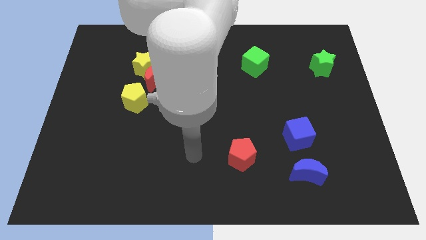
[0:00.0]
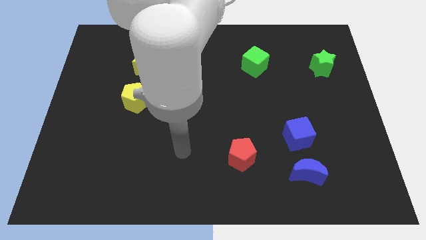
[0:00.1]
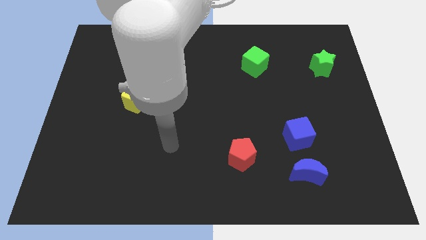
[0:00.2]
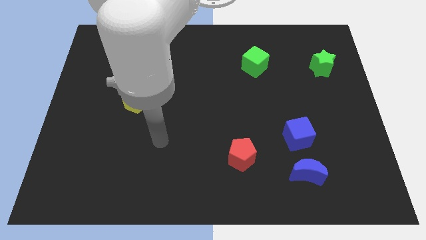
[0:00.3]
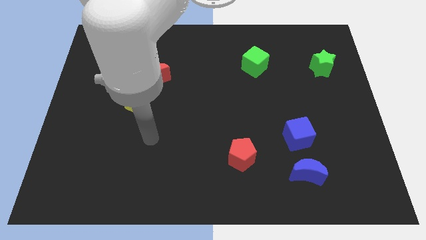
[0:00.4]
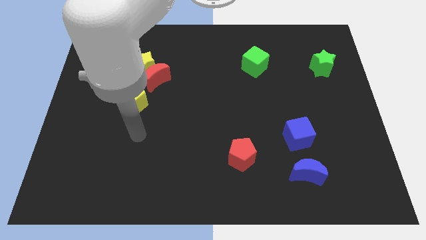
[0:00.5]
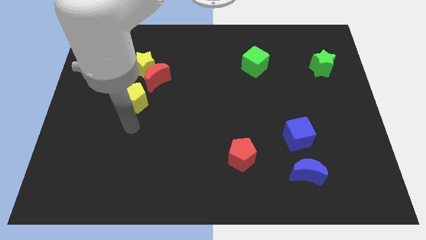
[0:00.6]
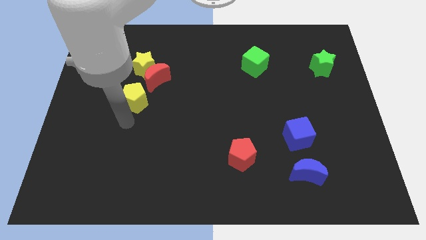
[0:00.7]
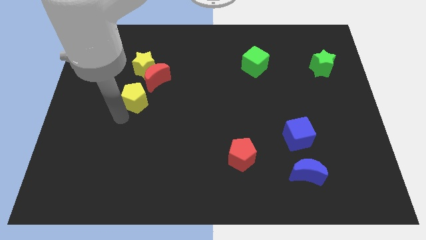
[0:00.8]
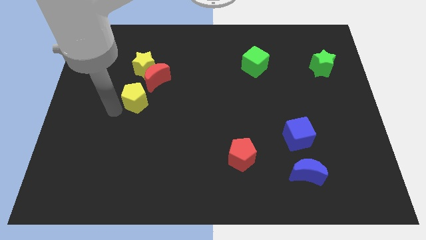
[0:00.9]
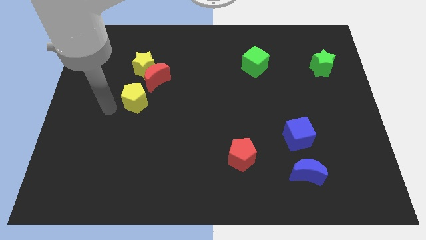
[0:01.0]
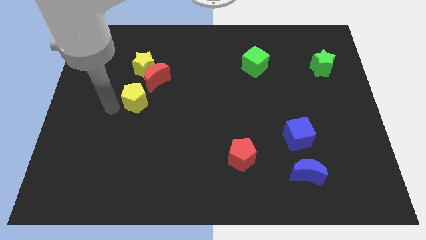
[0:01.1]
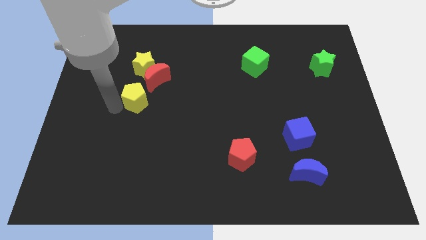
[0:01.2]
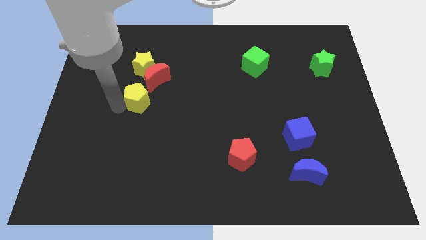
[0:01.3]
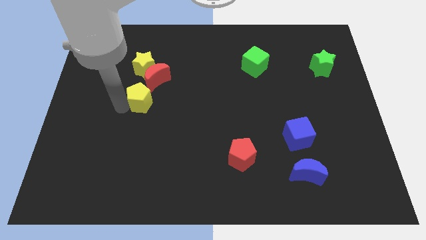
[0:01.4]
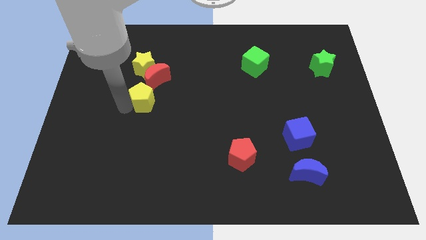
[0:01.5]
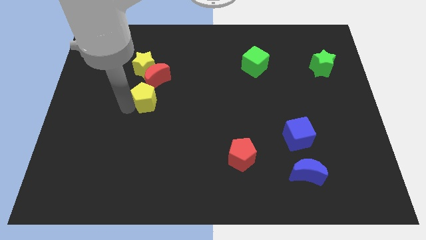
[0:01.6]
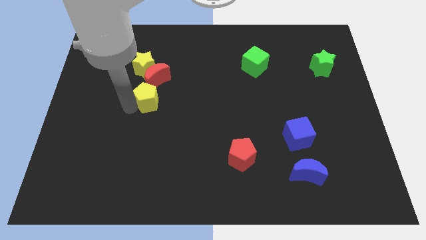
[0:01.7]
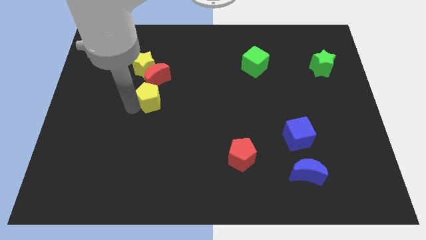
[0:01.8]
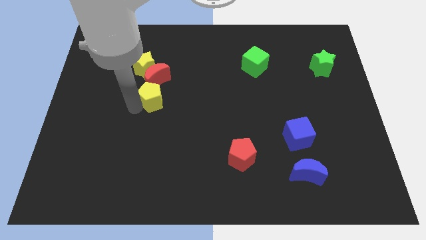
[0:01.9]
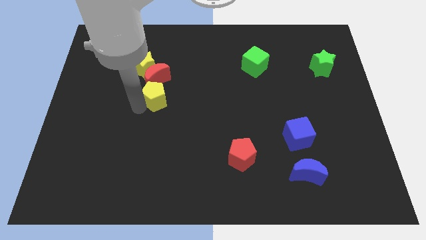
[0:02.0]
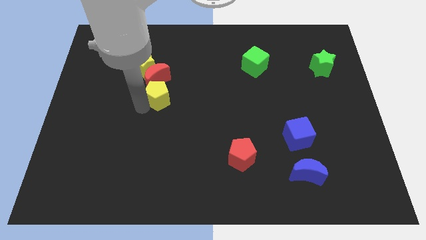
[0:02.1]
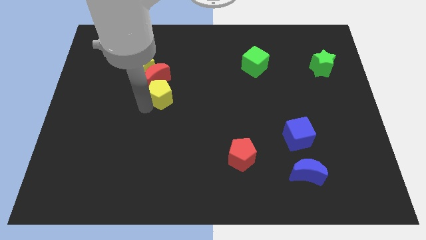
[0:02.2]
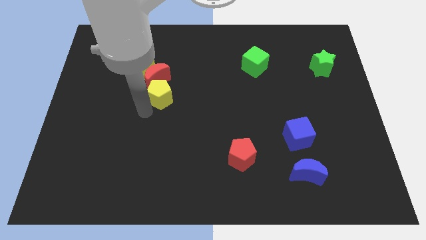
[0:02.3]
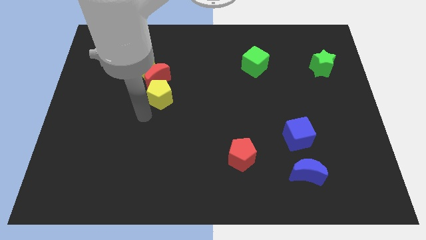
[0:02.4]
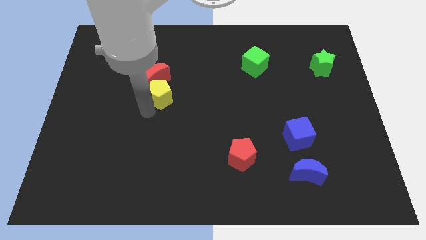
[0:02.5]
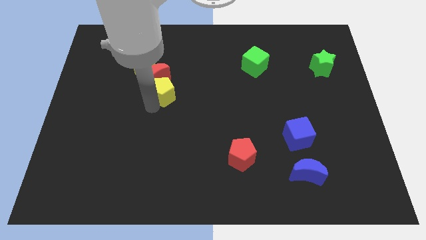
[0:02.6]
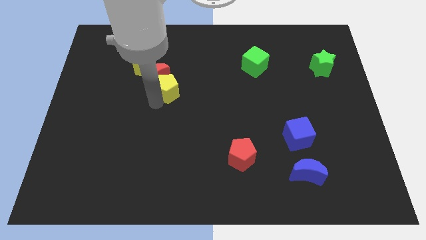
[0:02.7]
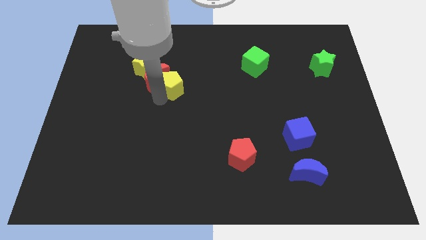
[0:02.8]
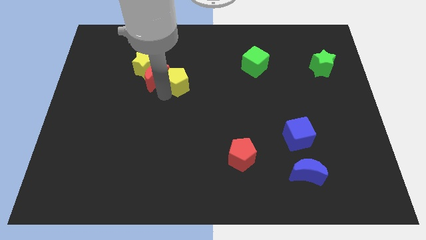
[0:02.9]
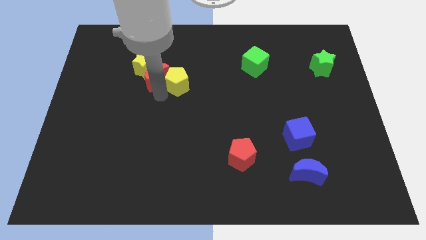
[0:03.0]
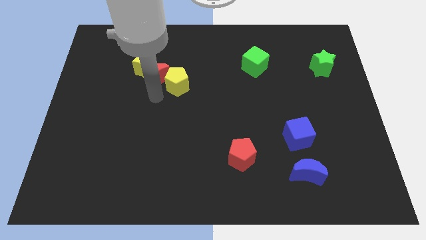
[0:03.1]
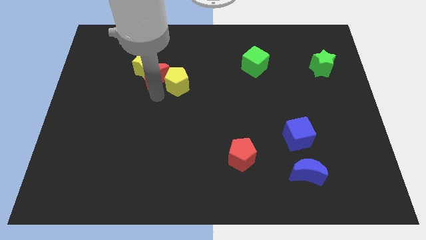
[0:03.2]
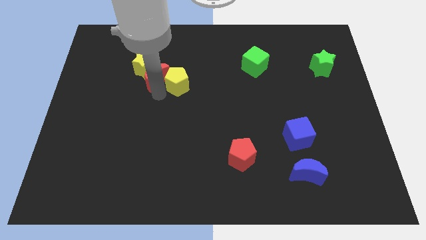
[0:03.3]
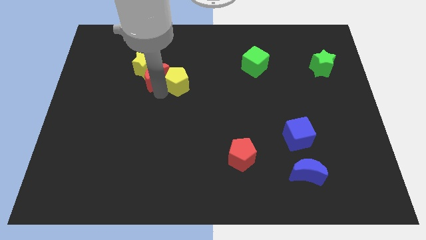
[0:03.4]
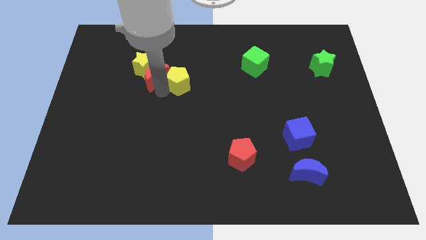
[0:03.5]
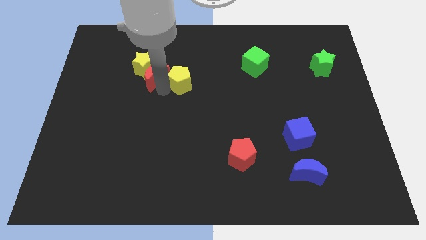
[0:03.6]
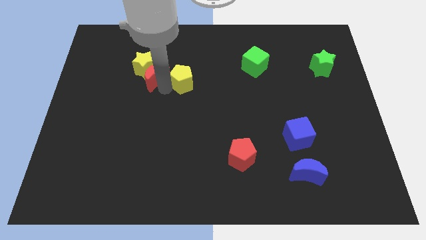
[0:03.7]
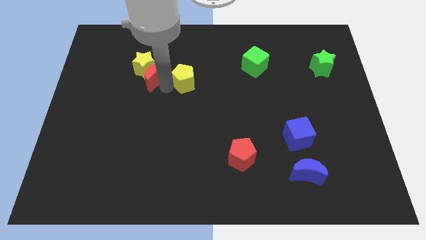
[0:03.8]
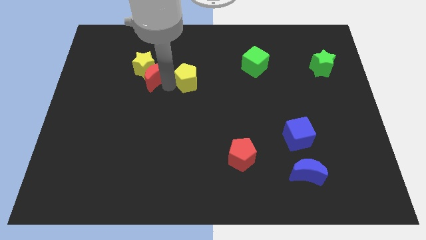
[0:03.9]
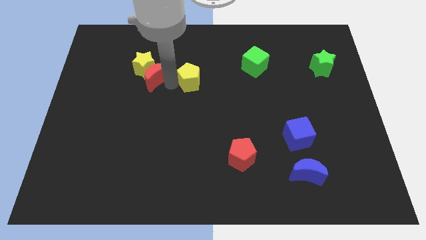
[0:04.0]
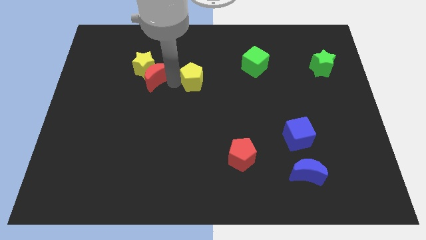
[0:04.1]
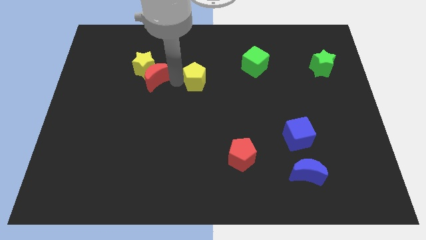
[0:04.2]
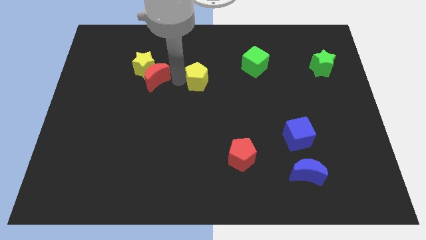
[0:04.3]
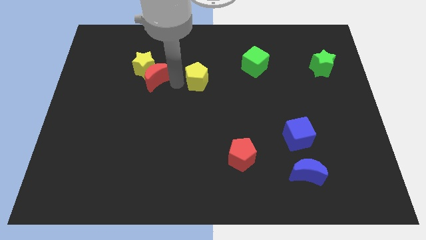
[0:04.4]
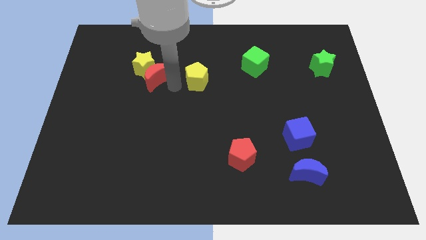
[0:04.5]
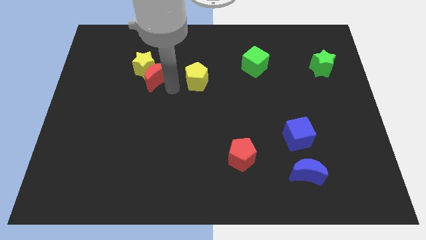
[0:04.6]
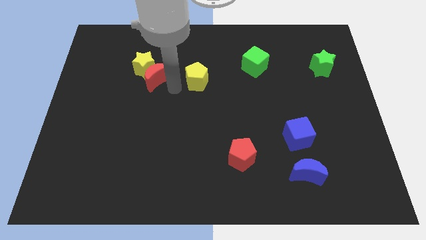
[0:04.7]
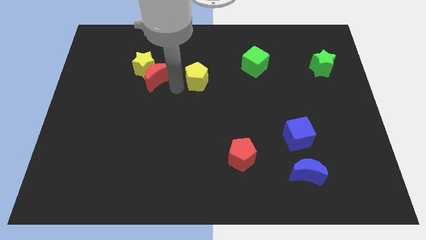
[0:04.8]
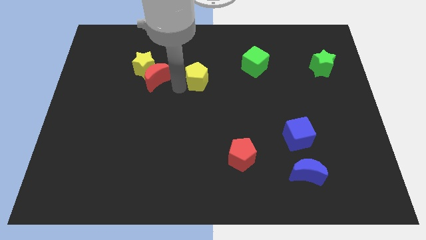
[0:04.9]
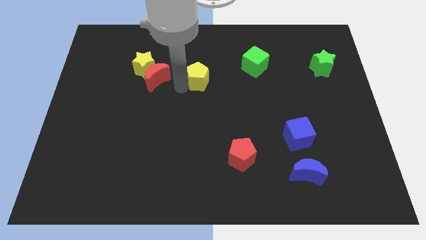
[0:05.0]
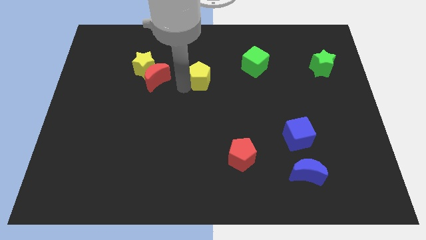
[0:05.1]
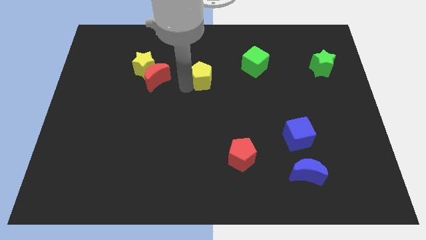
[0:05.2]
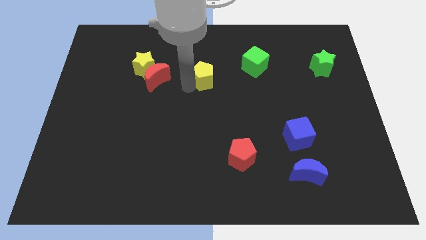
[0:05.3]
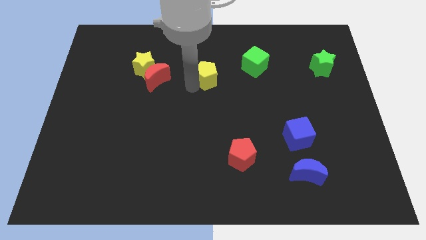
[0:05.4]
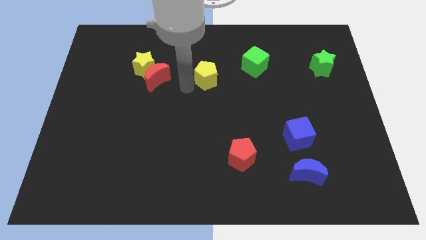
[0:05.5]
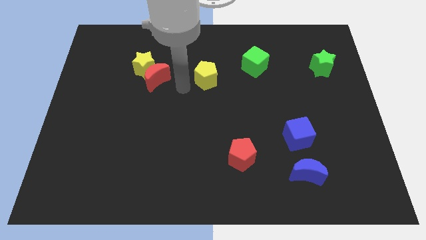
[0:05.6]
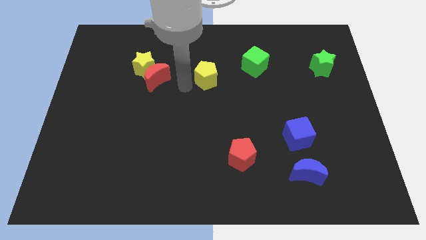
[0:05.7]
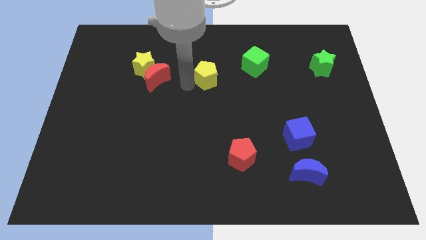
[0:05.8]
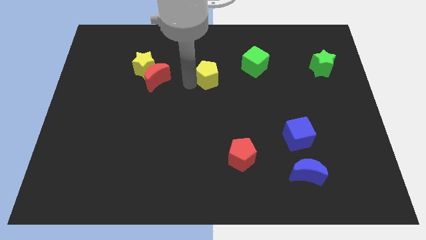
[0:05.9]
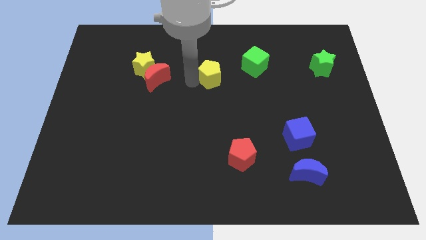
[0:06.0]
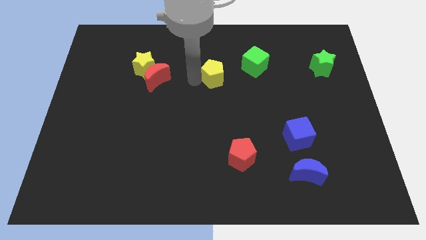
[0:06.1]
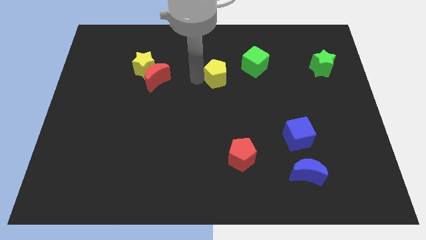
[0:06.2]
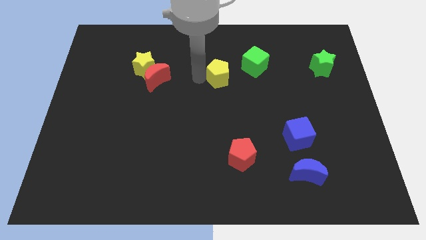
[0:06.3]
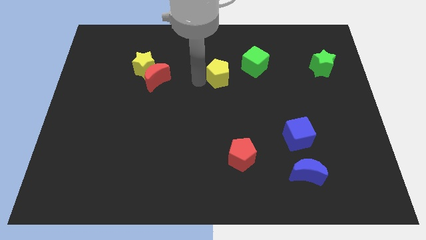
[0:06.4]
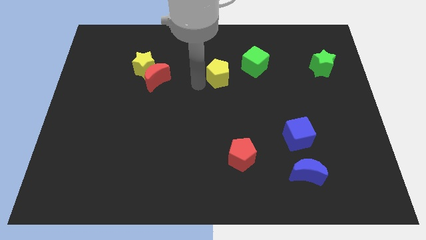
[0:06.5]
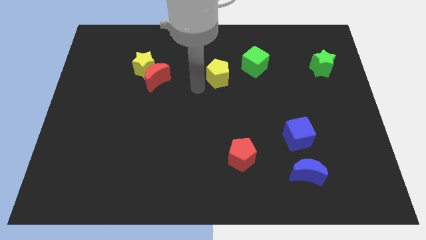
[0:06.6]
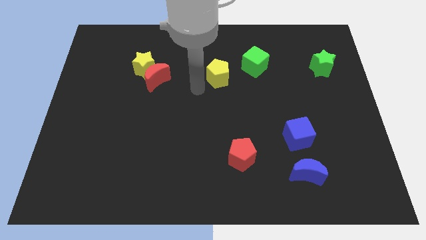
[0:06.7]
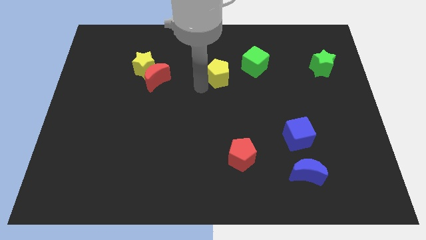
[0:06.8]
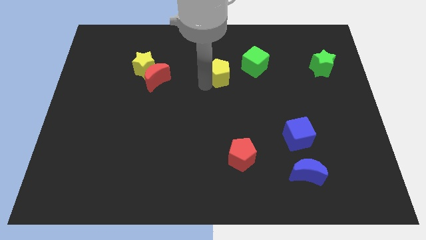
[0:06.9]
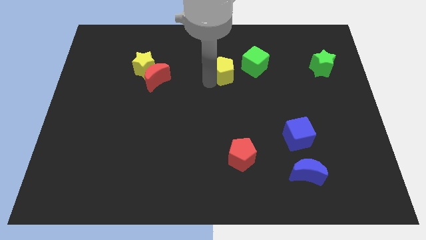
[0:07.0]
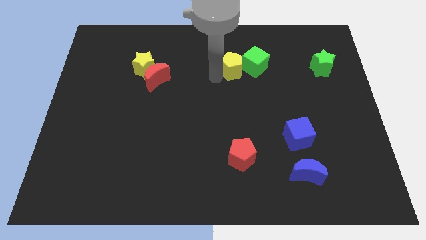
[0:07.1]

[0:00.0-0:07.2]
slide the yellow pentagon towards the green cube
